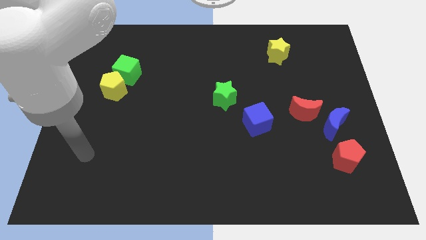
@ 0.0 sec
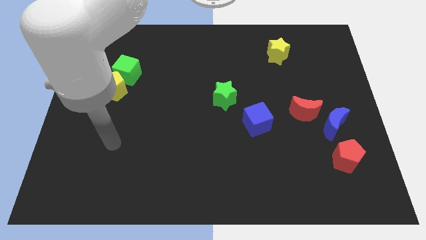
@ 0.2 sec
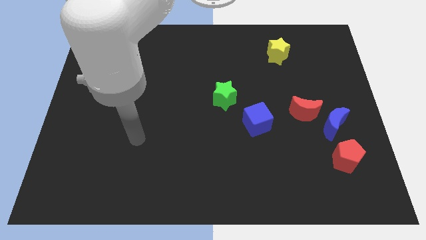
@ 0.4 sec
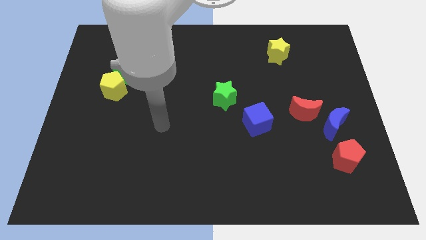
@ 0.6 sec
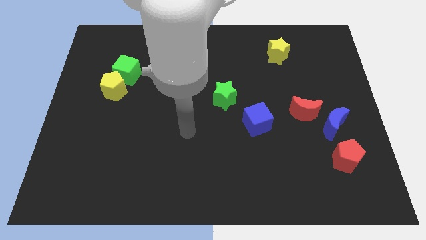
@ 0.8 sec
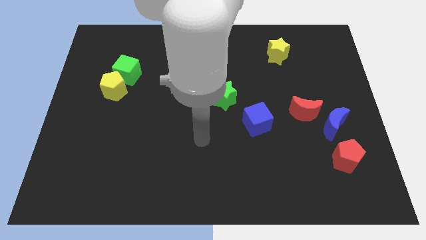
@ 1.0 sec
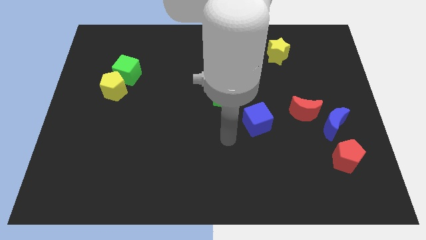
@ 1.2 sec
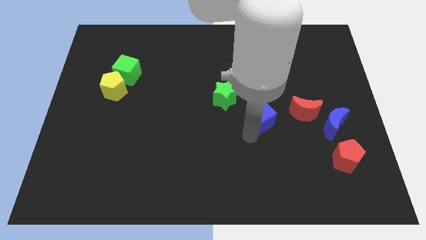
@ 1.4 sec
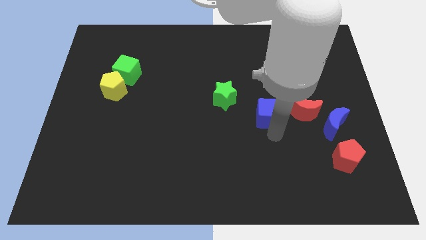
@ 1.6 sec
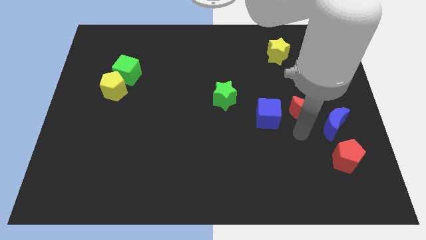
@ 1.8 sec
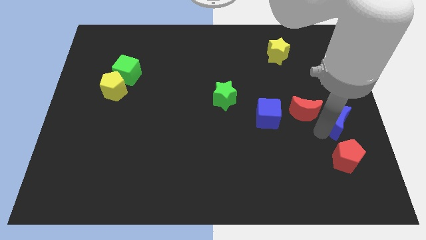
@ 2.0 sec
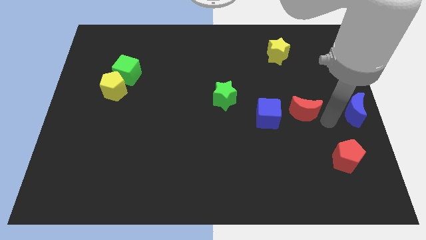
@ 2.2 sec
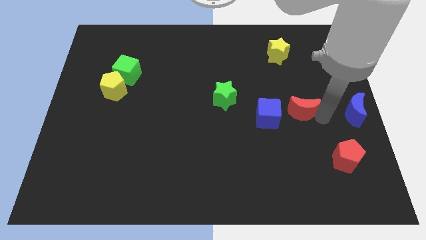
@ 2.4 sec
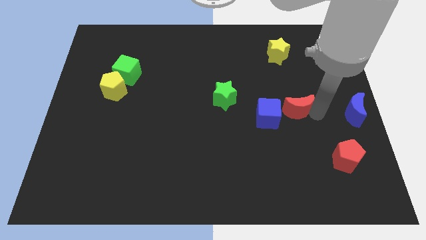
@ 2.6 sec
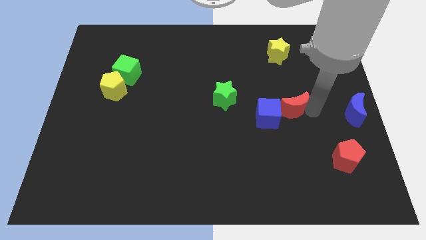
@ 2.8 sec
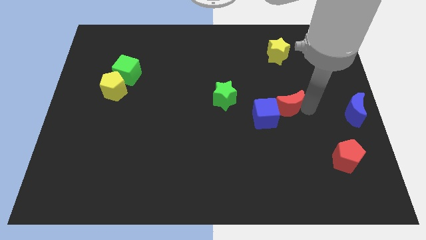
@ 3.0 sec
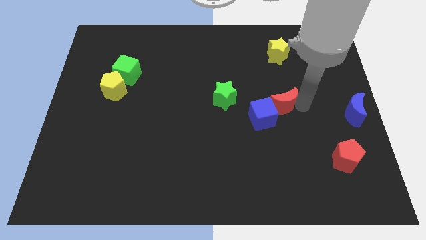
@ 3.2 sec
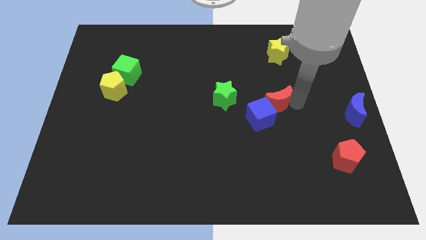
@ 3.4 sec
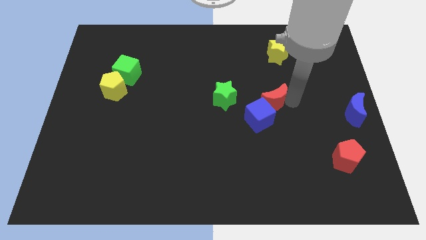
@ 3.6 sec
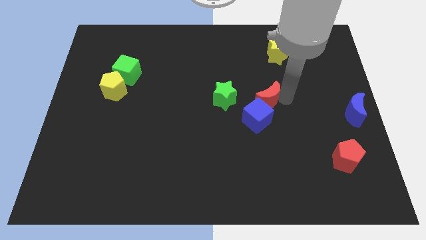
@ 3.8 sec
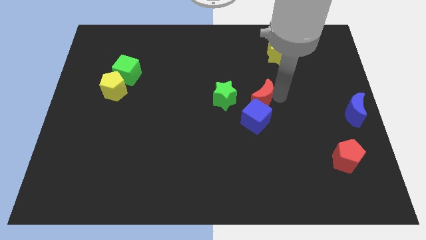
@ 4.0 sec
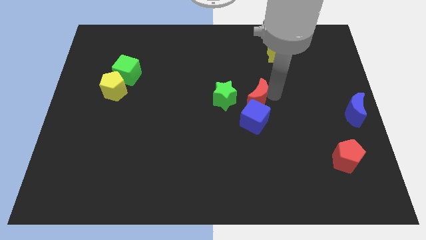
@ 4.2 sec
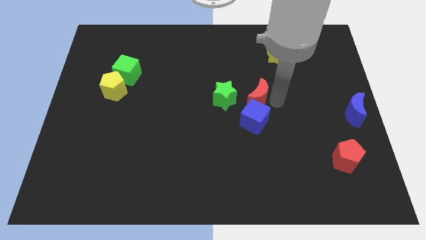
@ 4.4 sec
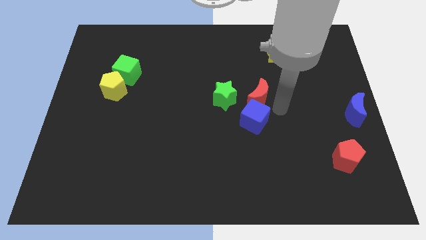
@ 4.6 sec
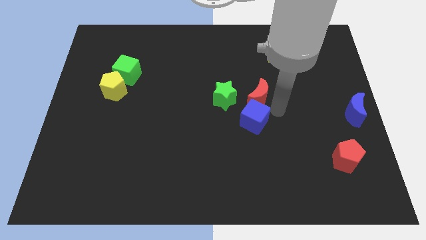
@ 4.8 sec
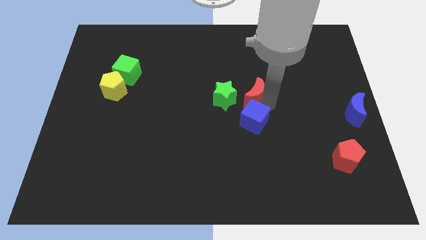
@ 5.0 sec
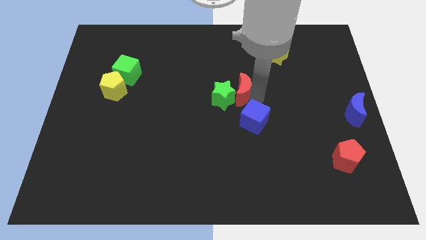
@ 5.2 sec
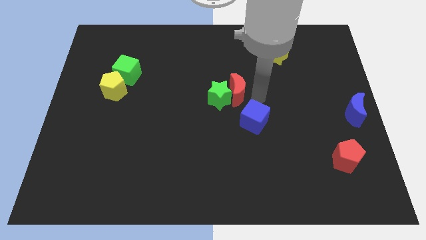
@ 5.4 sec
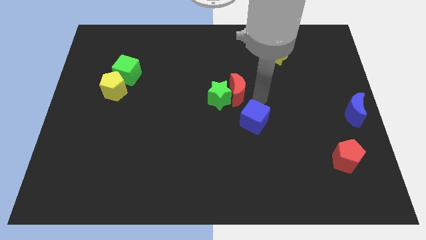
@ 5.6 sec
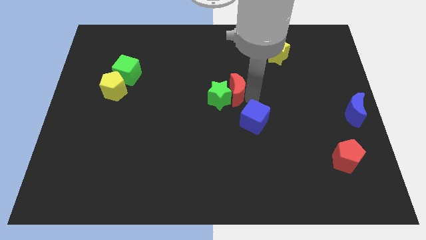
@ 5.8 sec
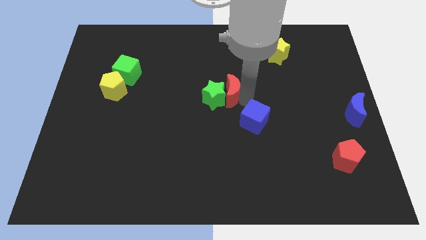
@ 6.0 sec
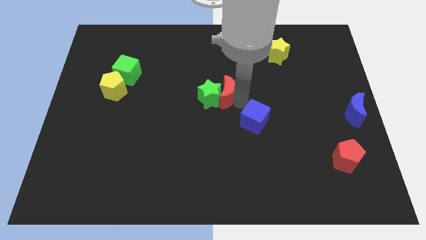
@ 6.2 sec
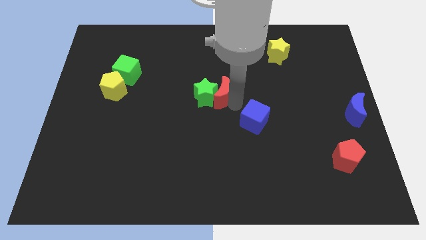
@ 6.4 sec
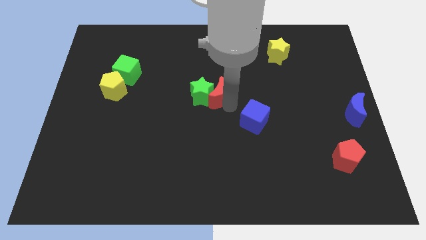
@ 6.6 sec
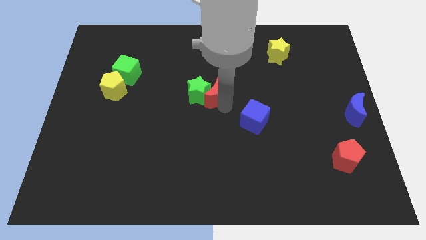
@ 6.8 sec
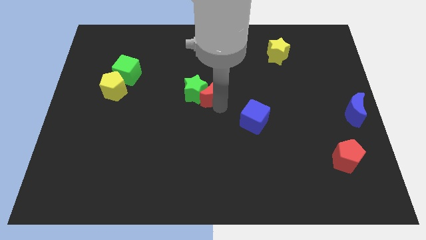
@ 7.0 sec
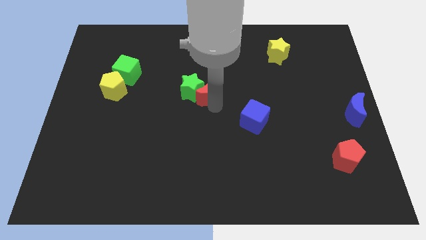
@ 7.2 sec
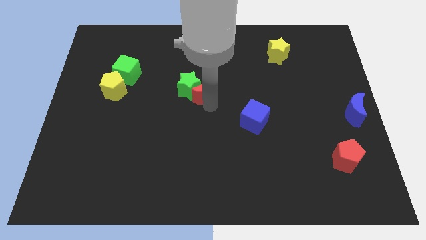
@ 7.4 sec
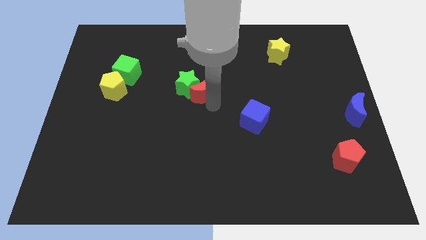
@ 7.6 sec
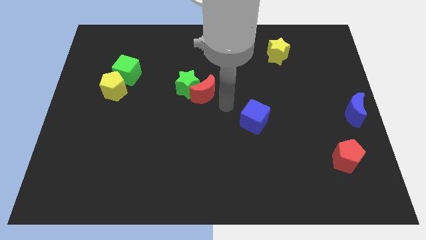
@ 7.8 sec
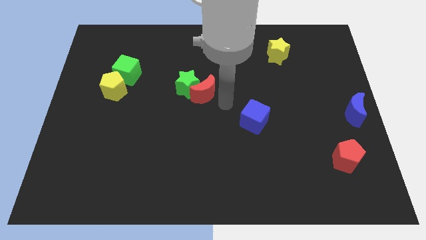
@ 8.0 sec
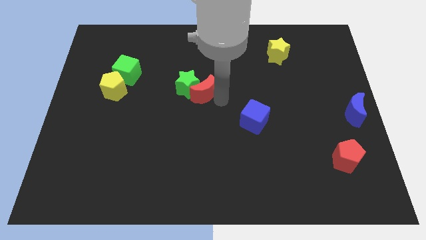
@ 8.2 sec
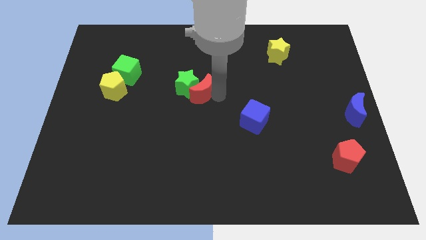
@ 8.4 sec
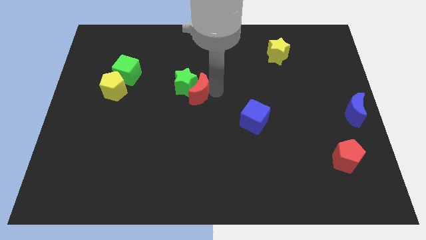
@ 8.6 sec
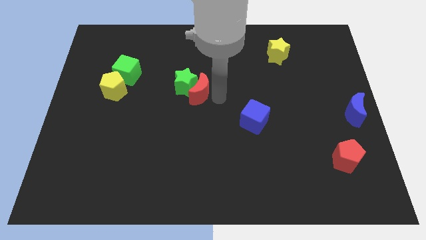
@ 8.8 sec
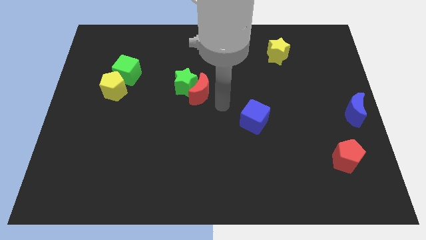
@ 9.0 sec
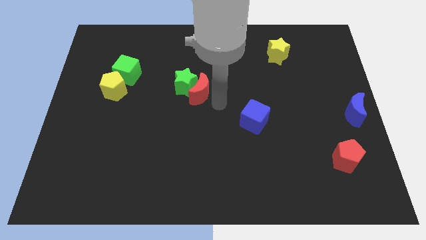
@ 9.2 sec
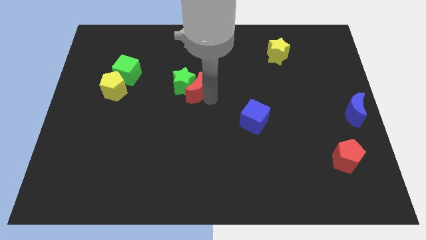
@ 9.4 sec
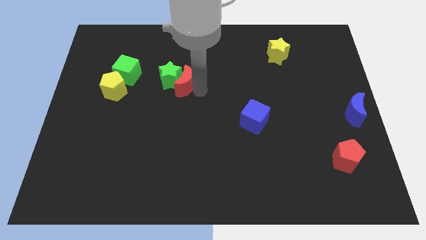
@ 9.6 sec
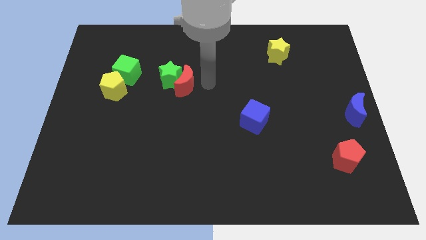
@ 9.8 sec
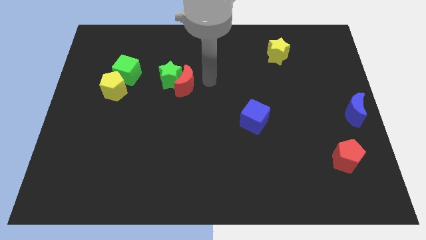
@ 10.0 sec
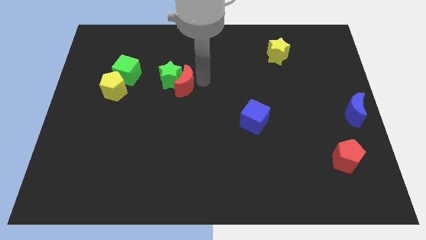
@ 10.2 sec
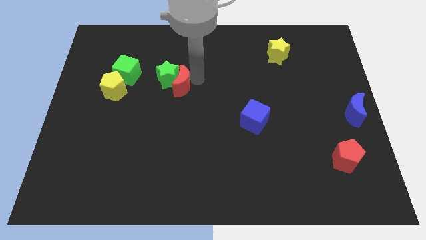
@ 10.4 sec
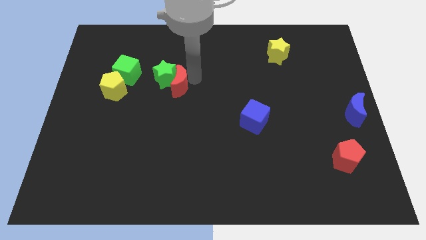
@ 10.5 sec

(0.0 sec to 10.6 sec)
put the red moon to the right of the yellow pentagon

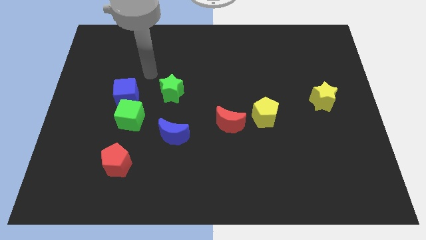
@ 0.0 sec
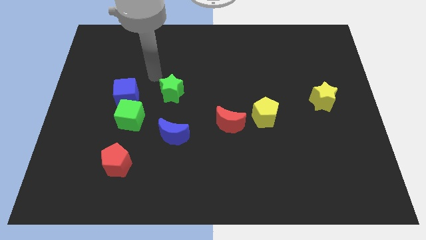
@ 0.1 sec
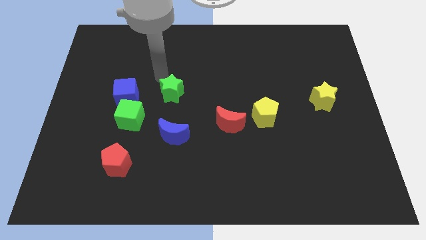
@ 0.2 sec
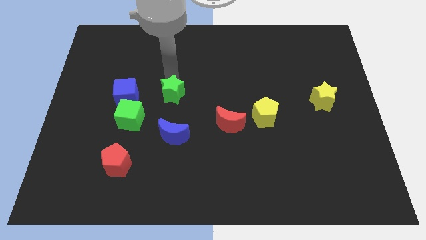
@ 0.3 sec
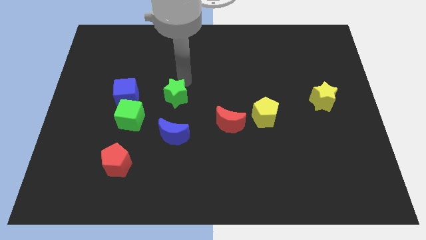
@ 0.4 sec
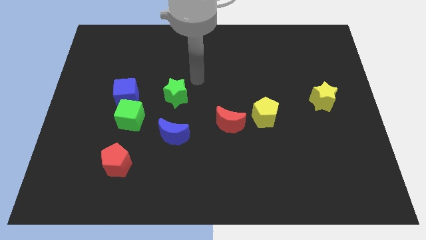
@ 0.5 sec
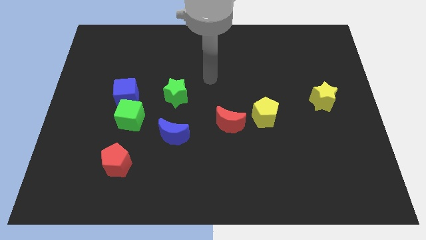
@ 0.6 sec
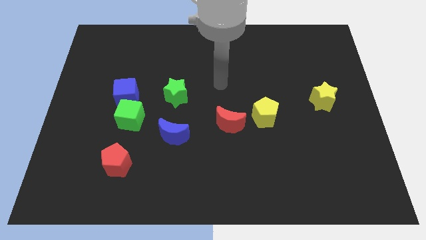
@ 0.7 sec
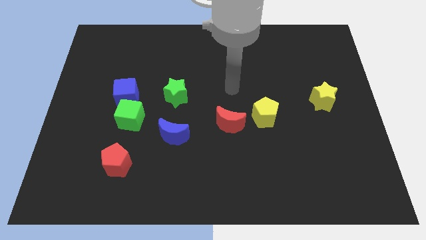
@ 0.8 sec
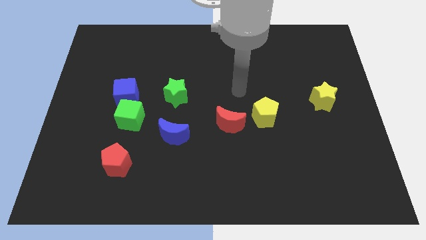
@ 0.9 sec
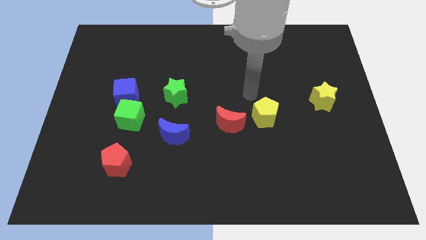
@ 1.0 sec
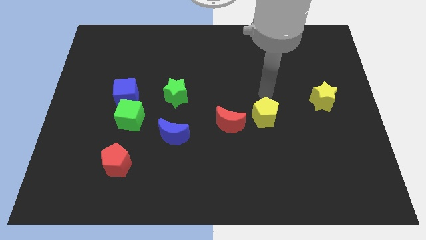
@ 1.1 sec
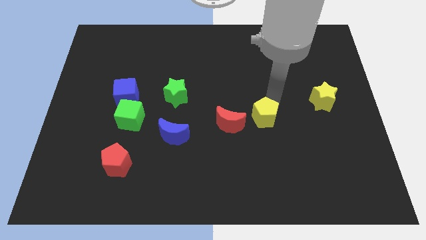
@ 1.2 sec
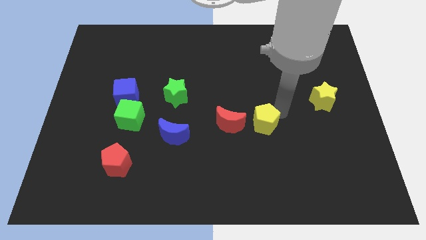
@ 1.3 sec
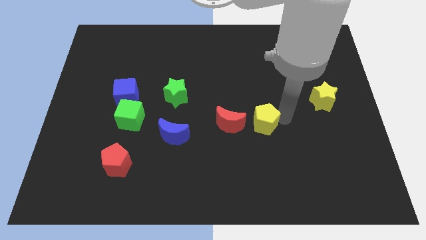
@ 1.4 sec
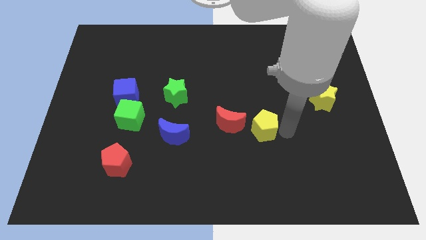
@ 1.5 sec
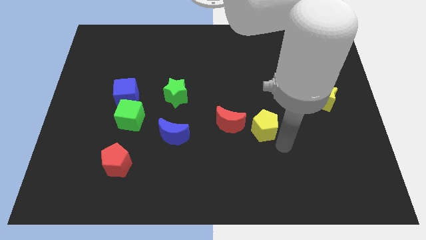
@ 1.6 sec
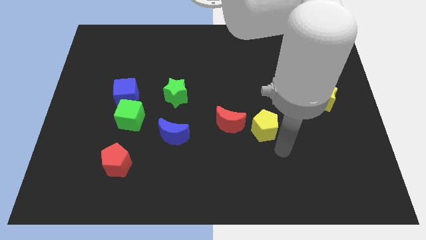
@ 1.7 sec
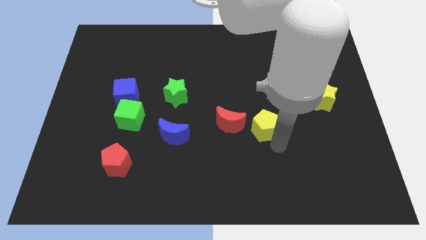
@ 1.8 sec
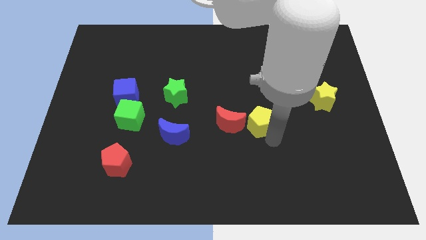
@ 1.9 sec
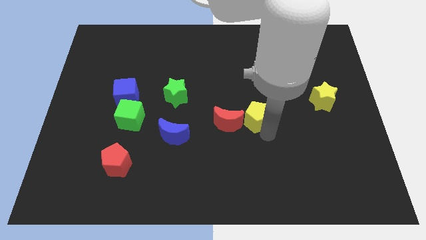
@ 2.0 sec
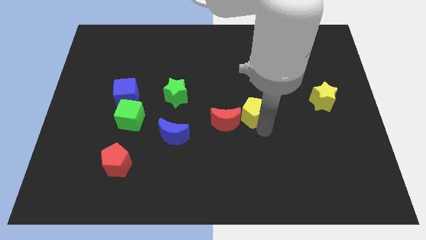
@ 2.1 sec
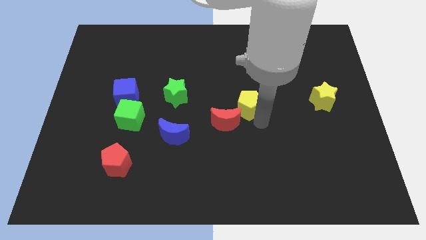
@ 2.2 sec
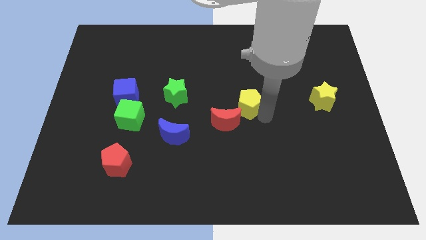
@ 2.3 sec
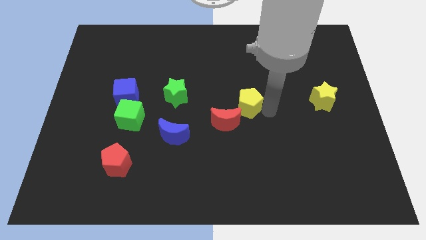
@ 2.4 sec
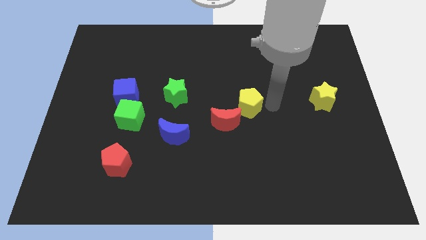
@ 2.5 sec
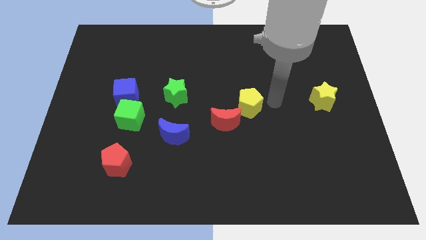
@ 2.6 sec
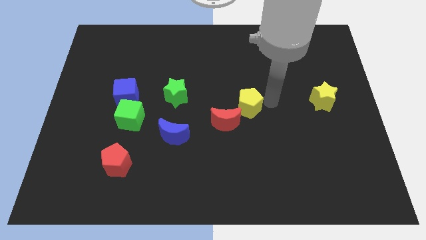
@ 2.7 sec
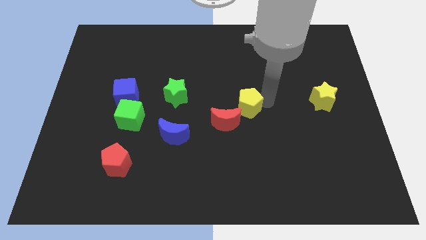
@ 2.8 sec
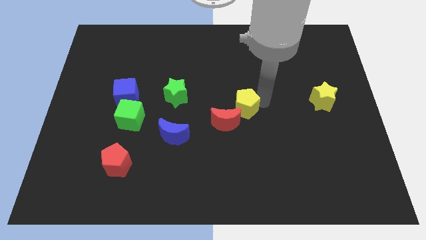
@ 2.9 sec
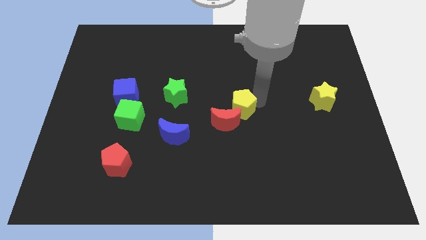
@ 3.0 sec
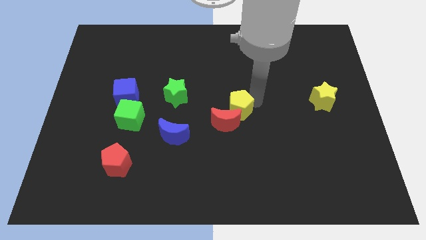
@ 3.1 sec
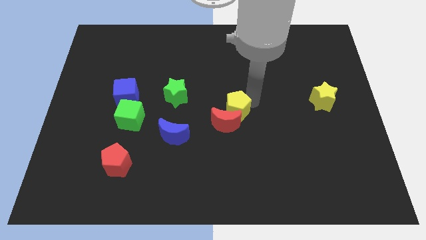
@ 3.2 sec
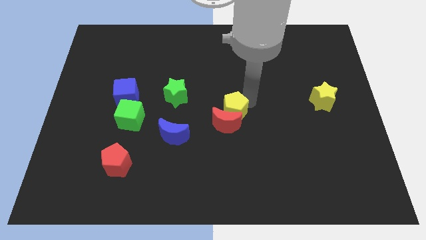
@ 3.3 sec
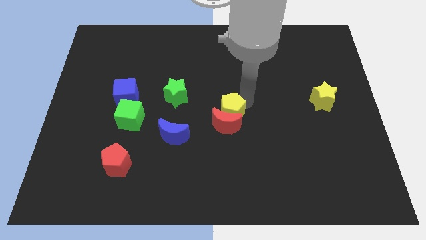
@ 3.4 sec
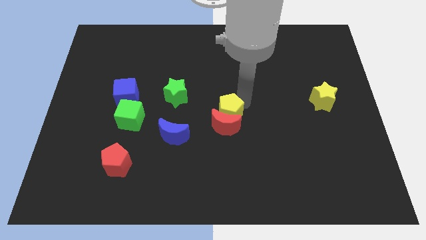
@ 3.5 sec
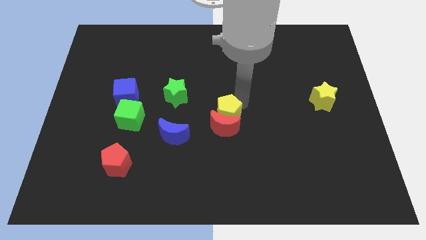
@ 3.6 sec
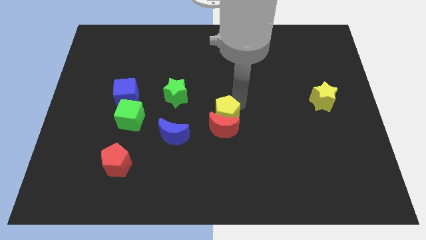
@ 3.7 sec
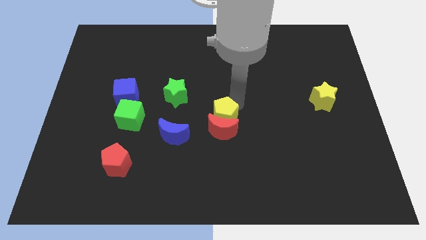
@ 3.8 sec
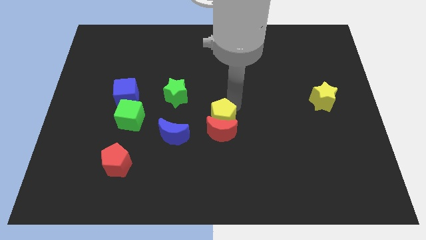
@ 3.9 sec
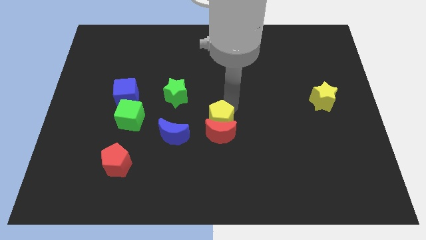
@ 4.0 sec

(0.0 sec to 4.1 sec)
move the yellow pentagon to the top right side of the blue moon
